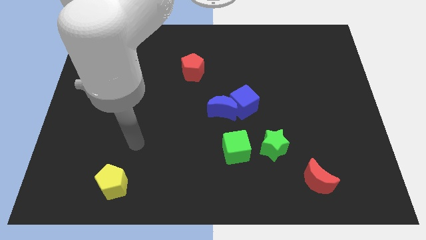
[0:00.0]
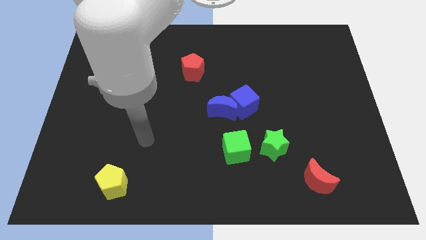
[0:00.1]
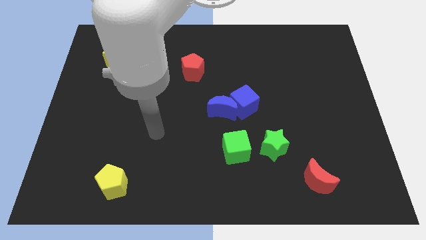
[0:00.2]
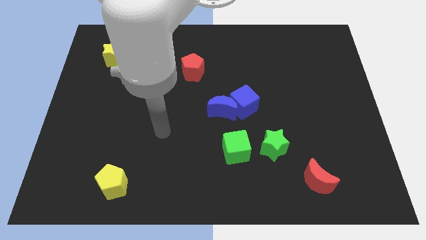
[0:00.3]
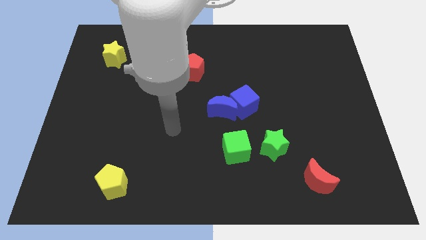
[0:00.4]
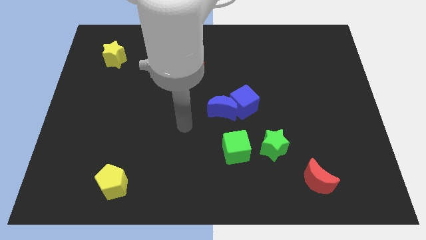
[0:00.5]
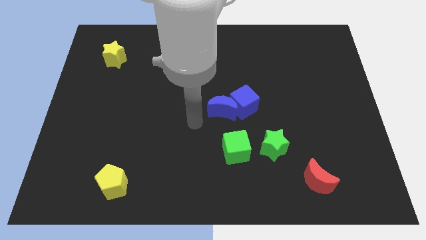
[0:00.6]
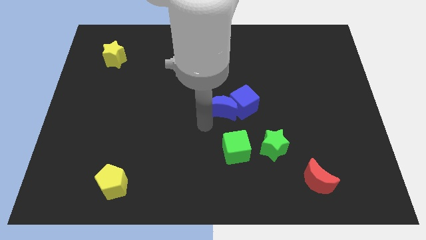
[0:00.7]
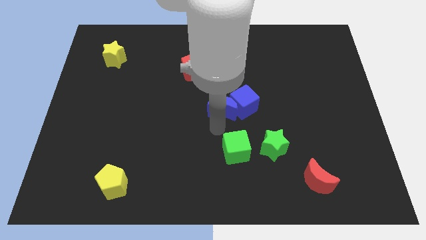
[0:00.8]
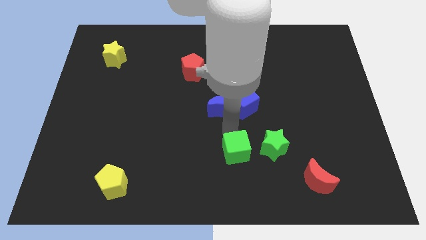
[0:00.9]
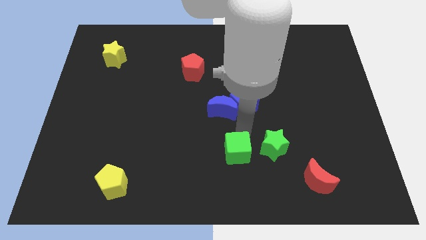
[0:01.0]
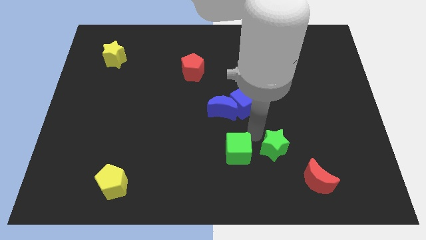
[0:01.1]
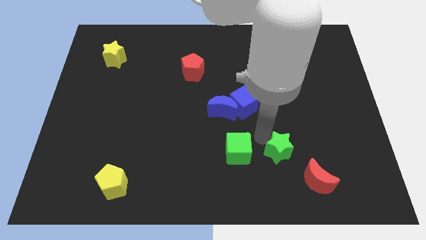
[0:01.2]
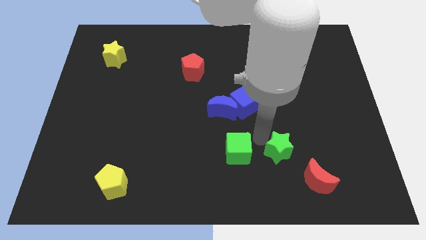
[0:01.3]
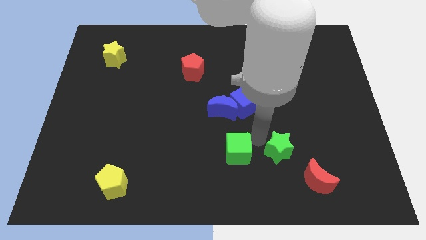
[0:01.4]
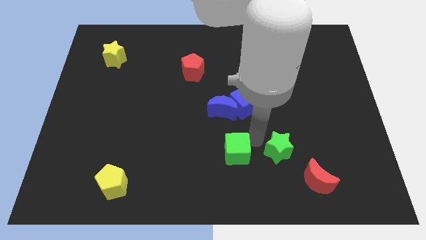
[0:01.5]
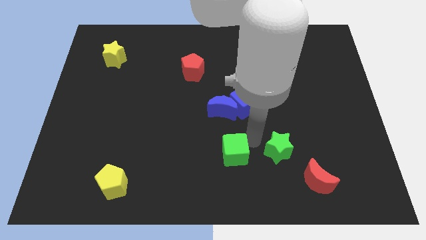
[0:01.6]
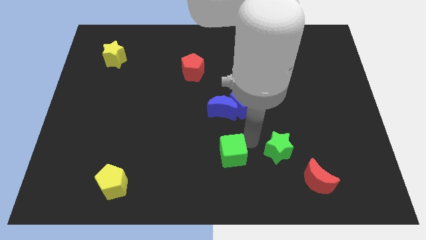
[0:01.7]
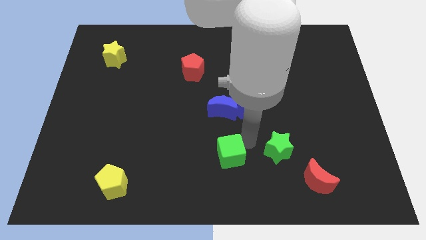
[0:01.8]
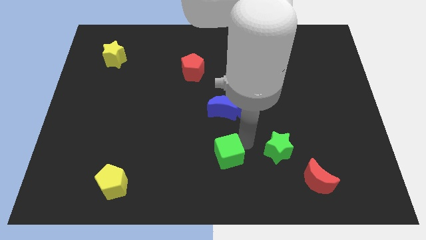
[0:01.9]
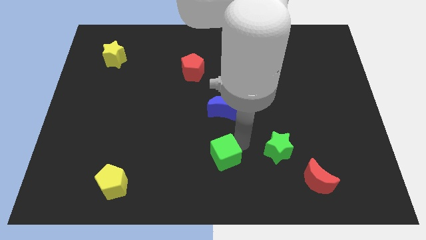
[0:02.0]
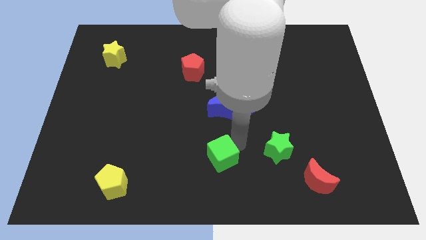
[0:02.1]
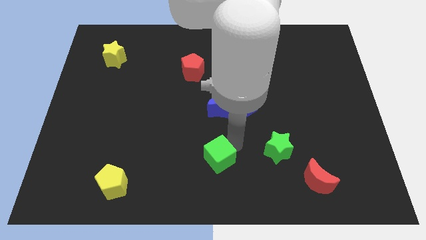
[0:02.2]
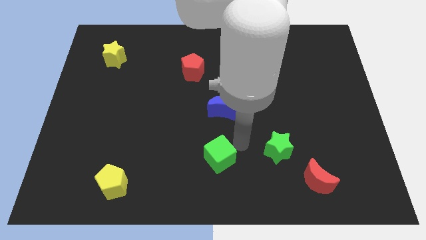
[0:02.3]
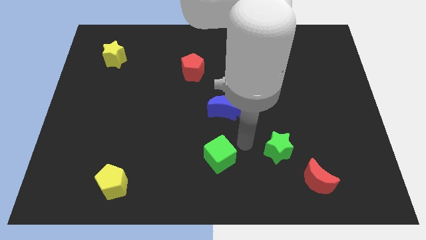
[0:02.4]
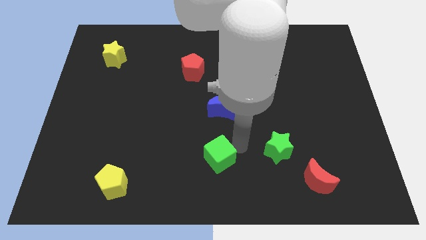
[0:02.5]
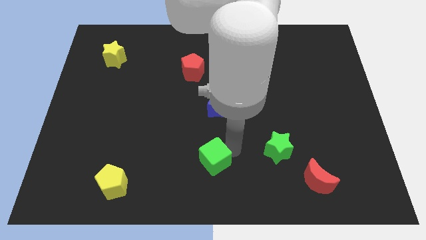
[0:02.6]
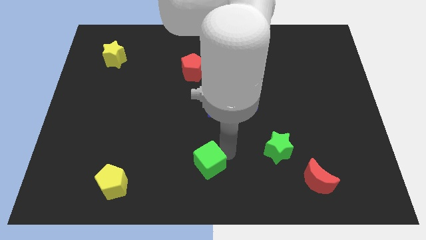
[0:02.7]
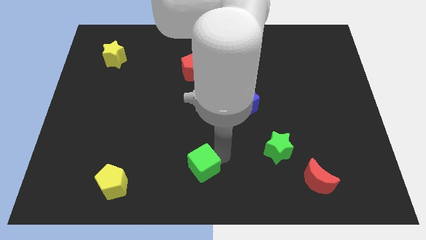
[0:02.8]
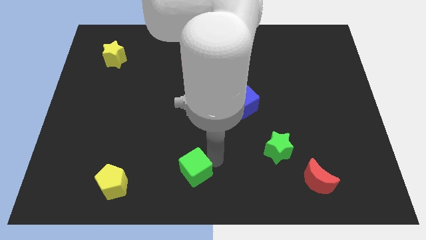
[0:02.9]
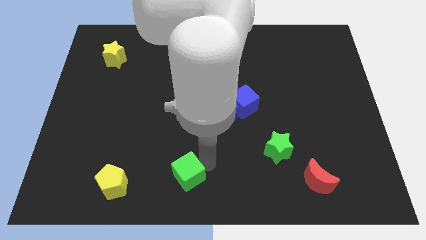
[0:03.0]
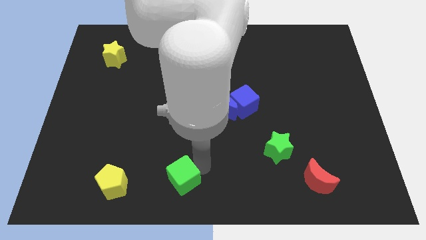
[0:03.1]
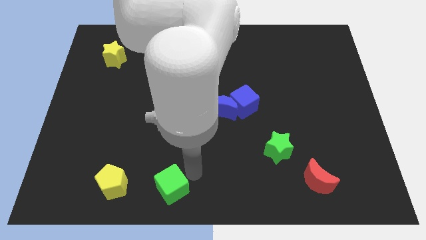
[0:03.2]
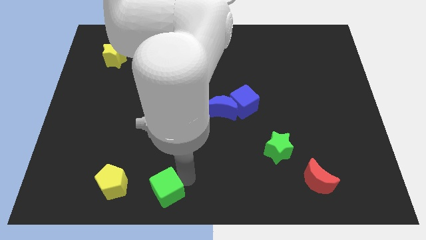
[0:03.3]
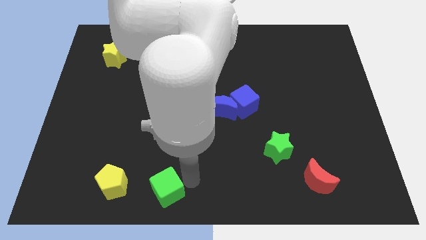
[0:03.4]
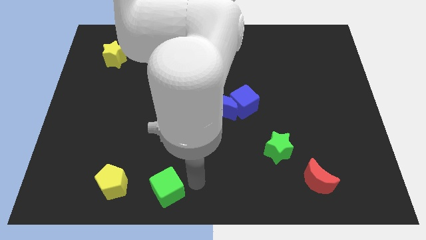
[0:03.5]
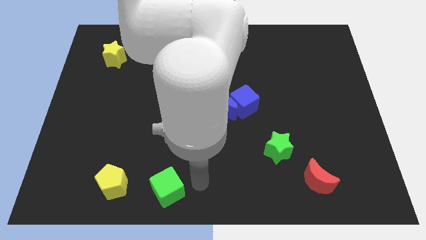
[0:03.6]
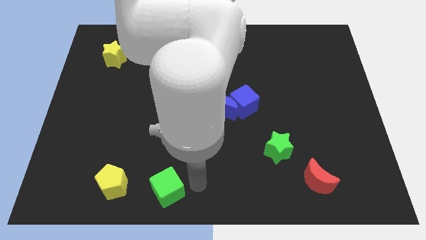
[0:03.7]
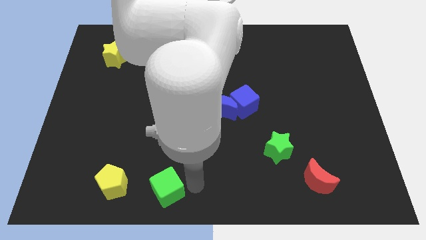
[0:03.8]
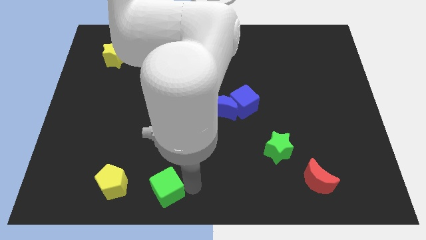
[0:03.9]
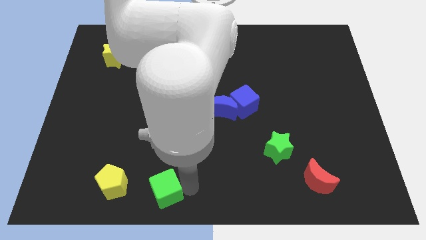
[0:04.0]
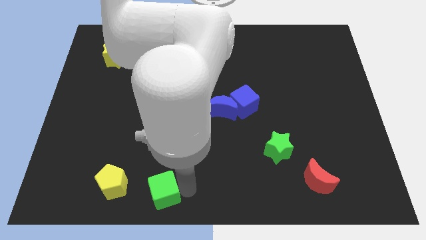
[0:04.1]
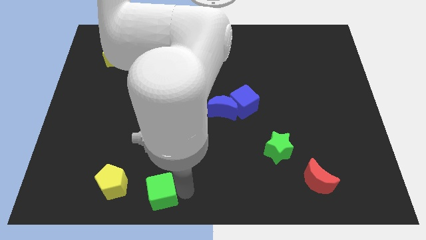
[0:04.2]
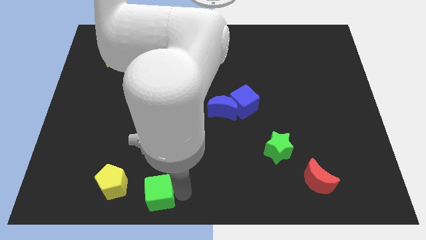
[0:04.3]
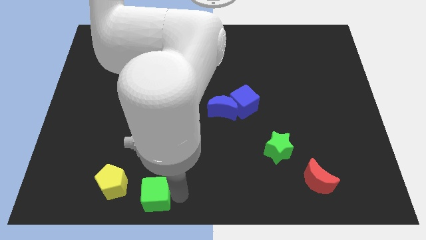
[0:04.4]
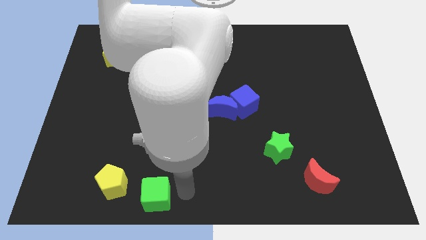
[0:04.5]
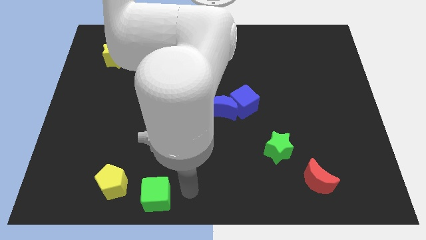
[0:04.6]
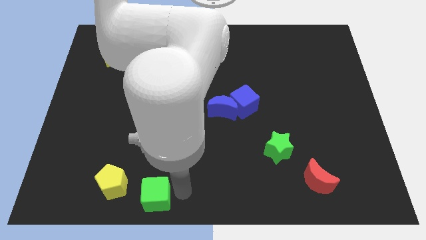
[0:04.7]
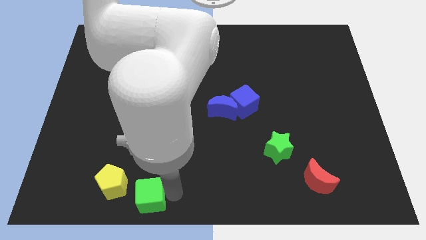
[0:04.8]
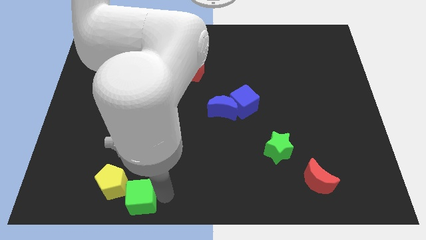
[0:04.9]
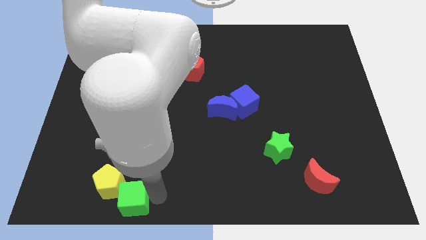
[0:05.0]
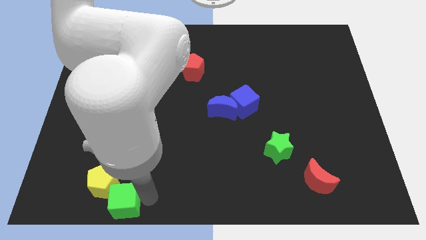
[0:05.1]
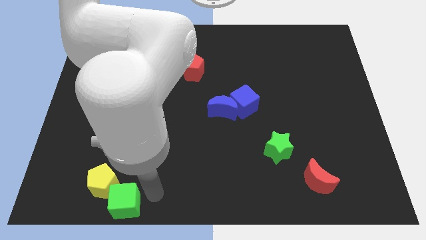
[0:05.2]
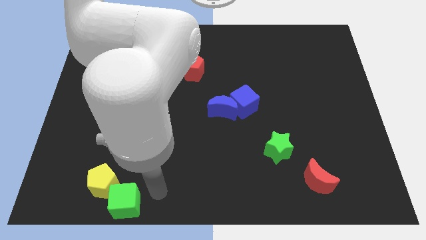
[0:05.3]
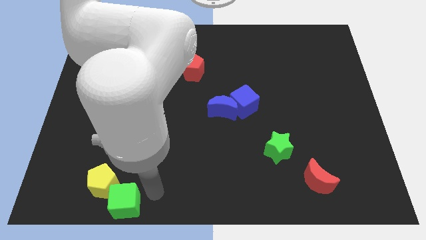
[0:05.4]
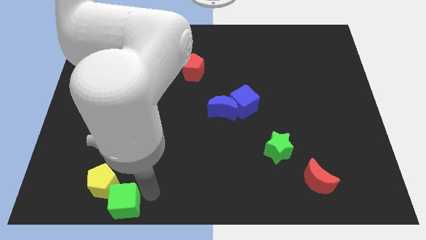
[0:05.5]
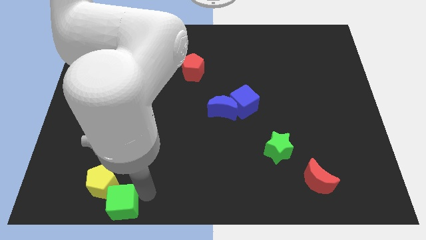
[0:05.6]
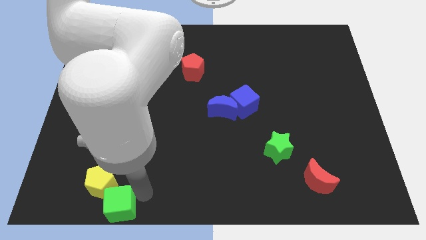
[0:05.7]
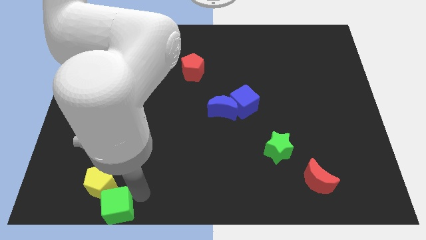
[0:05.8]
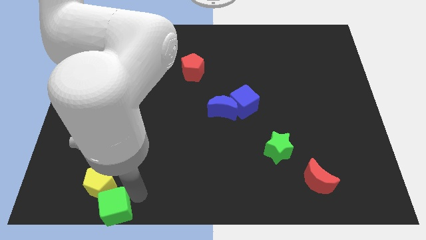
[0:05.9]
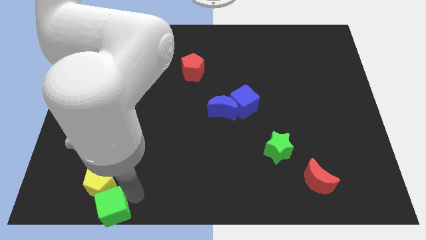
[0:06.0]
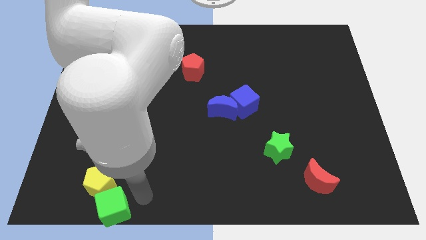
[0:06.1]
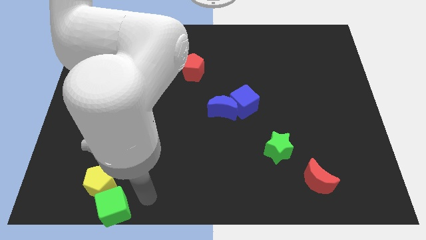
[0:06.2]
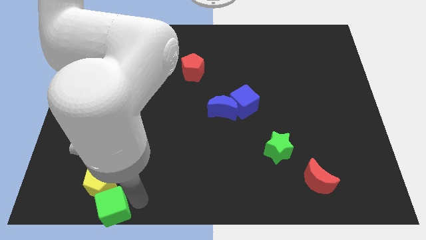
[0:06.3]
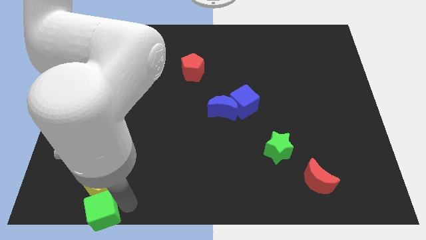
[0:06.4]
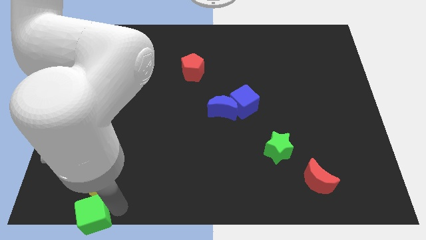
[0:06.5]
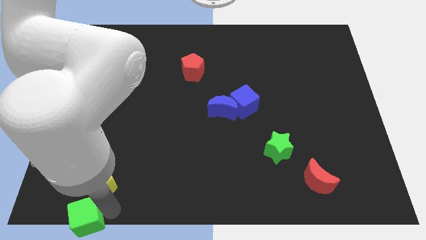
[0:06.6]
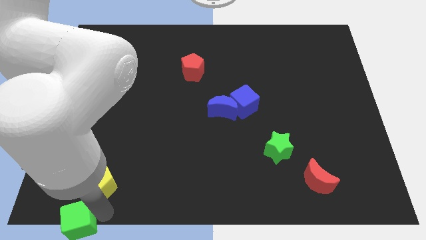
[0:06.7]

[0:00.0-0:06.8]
put the green cube to the lower left corner

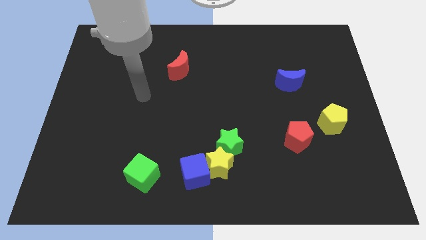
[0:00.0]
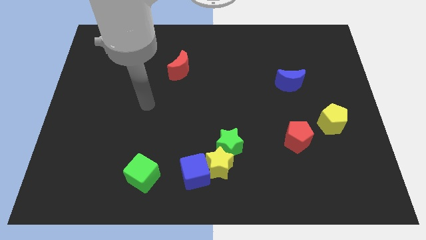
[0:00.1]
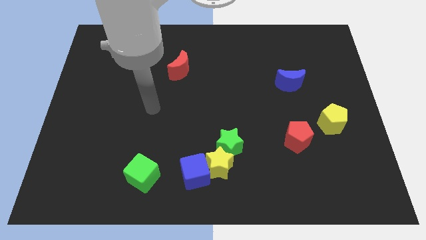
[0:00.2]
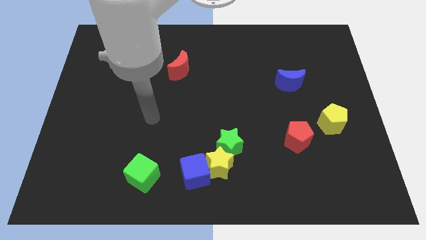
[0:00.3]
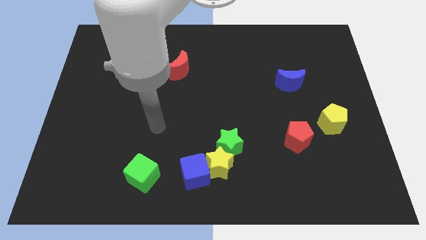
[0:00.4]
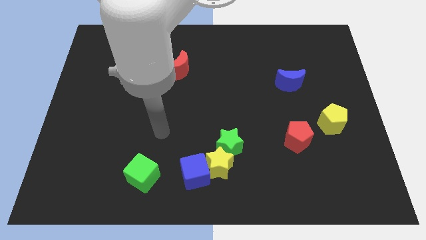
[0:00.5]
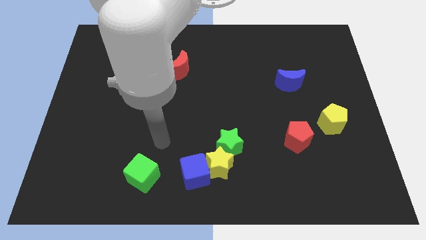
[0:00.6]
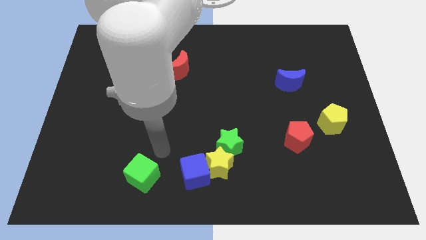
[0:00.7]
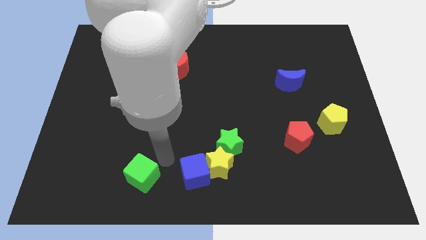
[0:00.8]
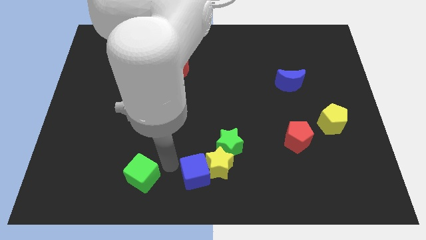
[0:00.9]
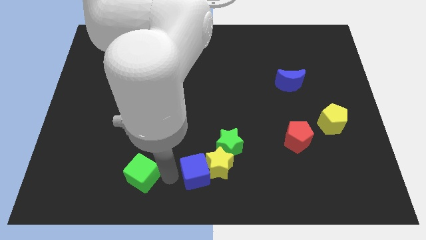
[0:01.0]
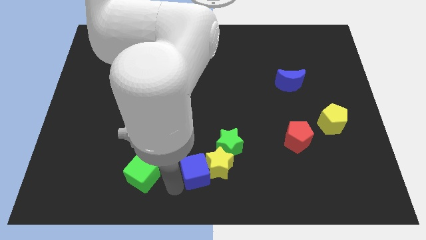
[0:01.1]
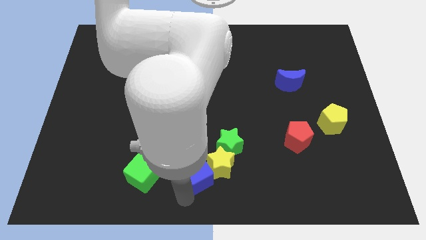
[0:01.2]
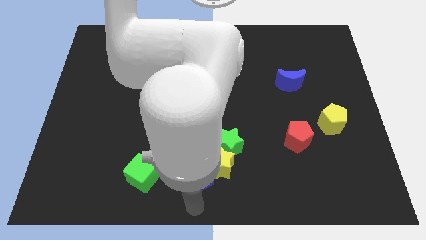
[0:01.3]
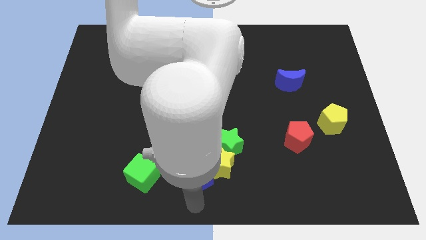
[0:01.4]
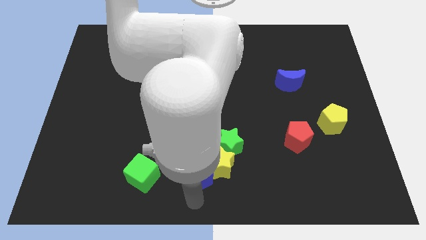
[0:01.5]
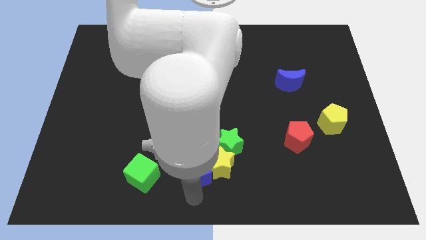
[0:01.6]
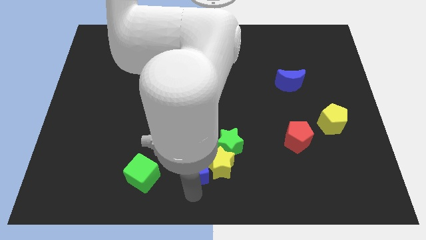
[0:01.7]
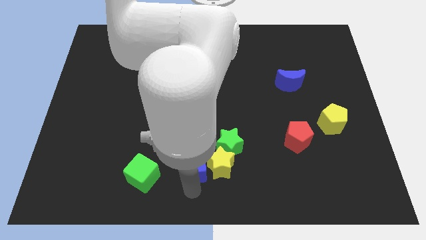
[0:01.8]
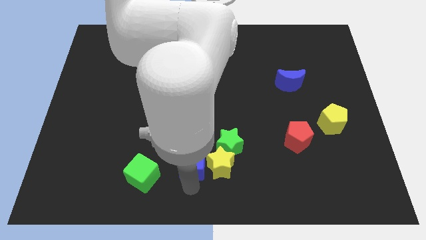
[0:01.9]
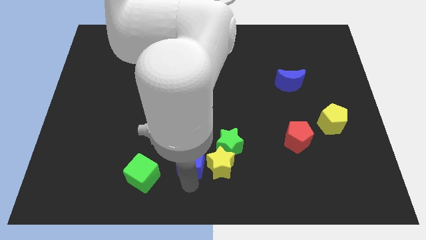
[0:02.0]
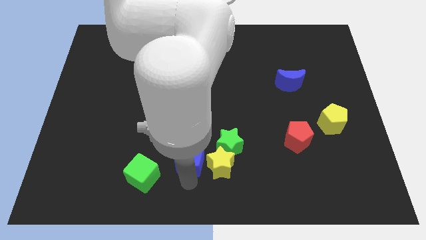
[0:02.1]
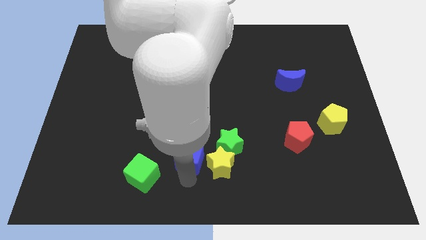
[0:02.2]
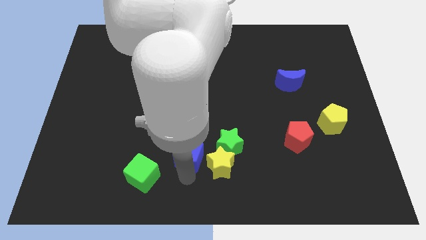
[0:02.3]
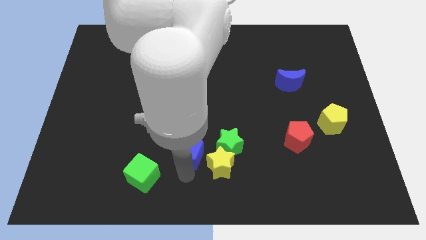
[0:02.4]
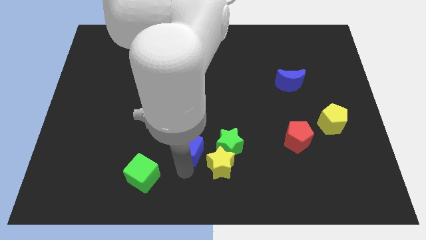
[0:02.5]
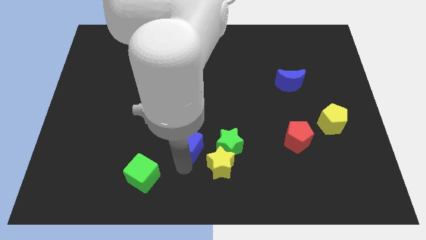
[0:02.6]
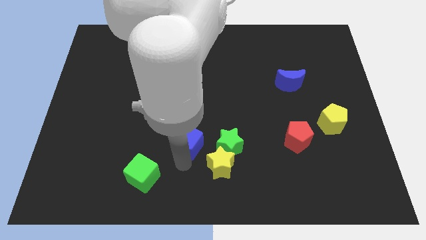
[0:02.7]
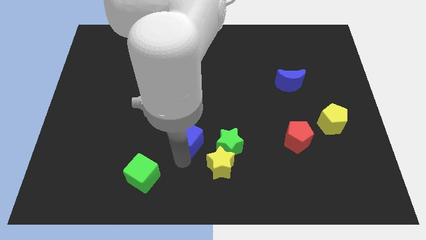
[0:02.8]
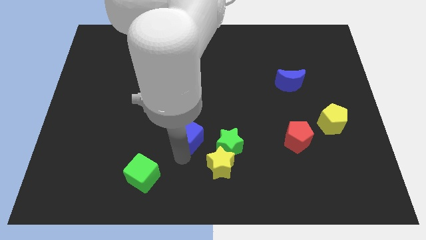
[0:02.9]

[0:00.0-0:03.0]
slide the blue cube to the center
